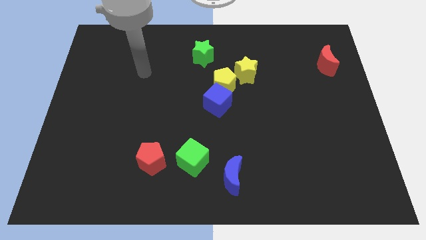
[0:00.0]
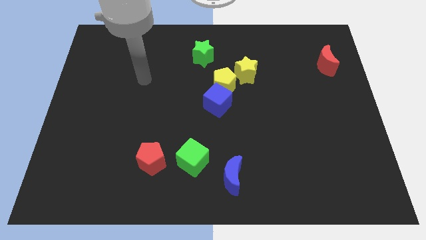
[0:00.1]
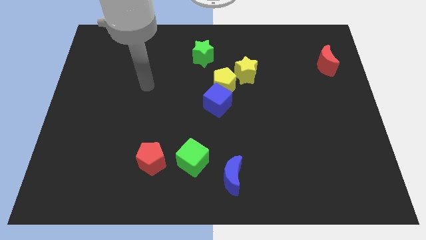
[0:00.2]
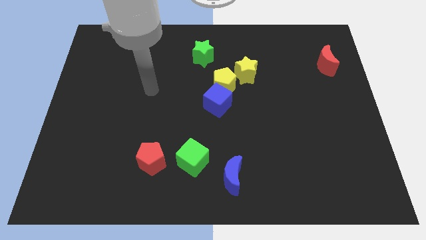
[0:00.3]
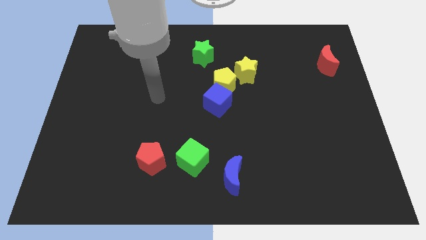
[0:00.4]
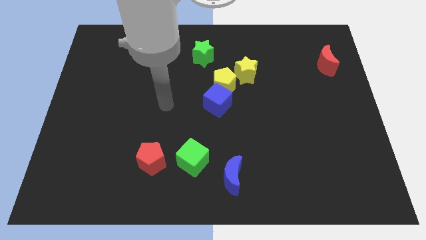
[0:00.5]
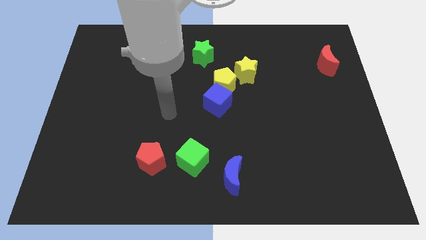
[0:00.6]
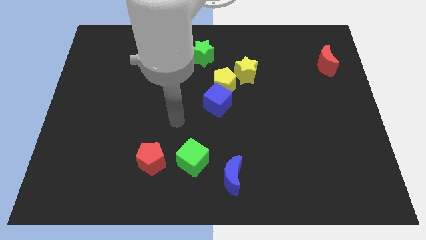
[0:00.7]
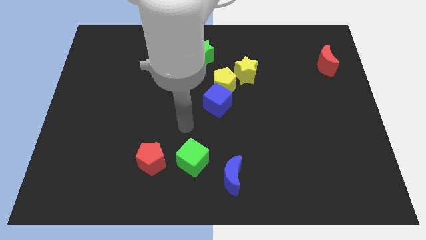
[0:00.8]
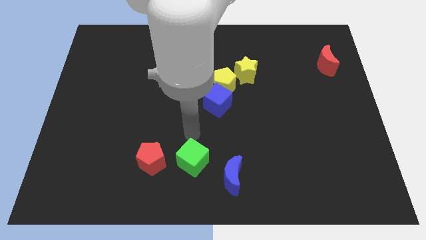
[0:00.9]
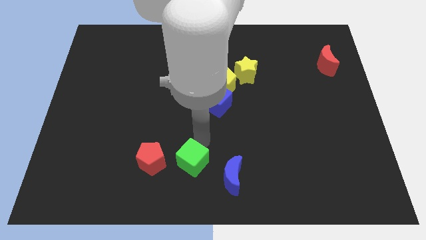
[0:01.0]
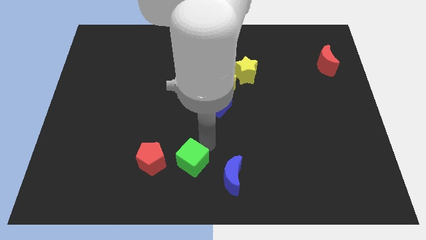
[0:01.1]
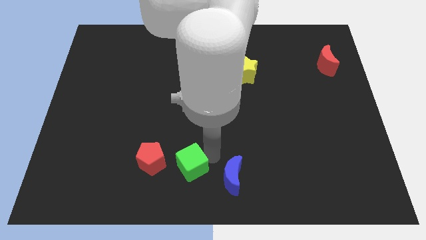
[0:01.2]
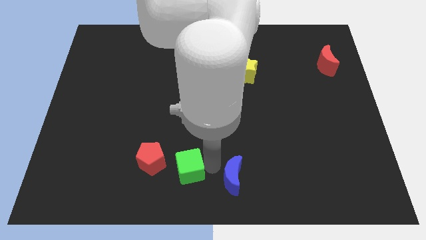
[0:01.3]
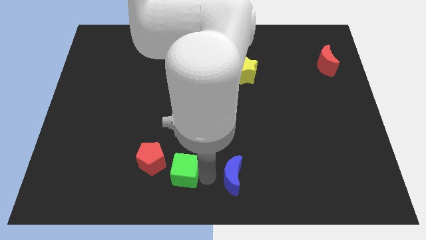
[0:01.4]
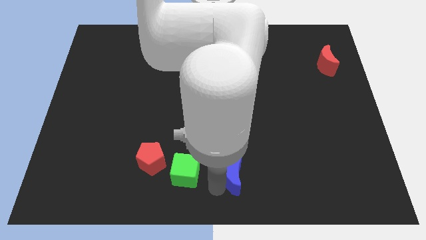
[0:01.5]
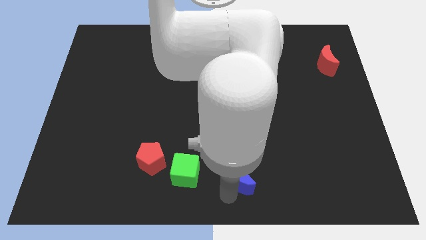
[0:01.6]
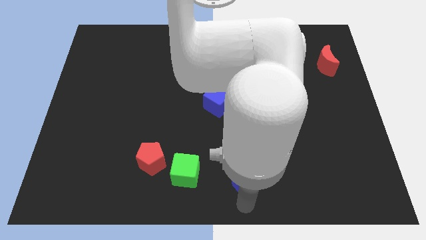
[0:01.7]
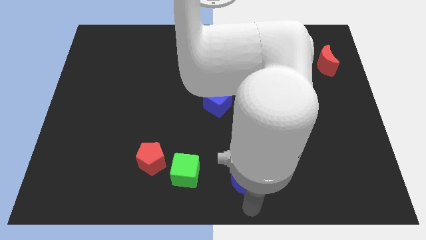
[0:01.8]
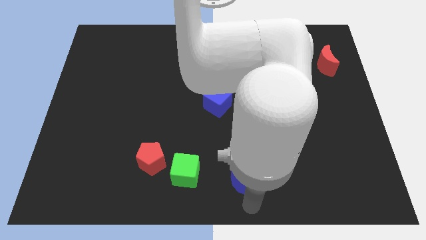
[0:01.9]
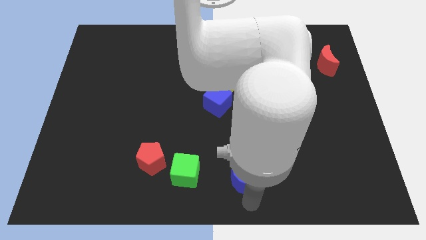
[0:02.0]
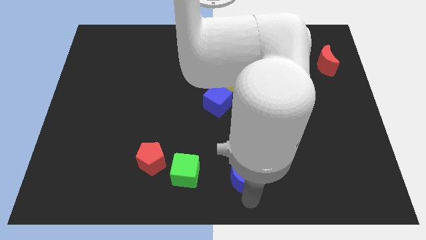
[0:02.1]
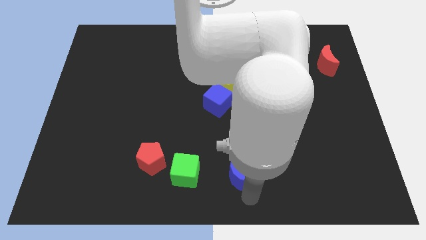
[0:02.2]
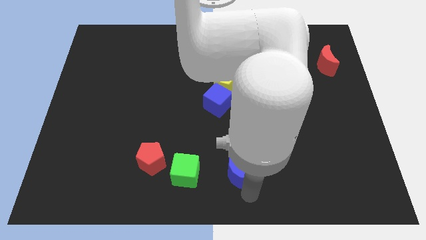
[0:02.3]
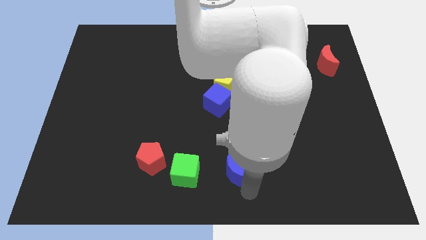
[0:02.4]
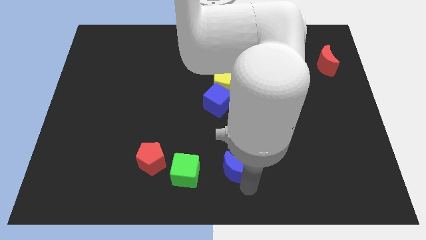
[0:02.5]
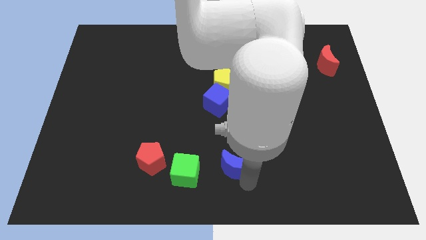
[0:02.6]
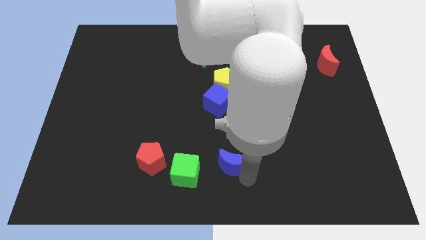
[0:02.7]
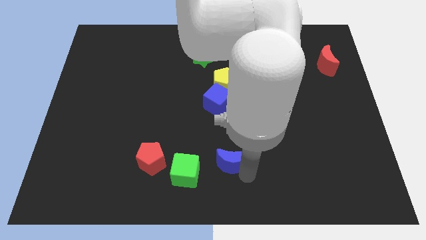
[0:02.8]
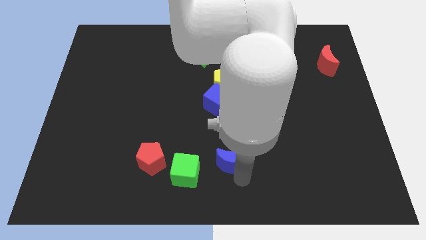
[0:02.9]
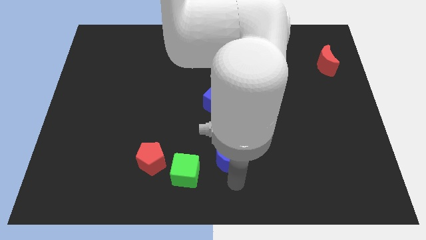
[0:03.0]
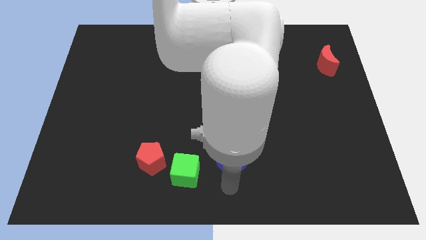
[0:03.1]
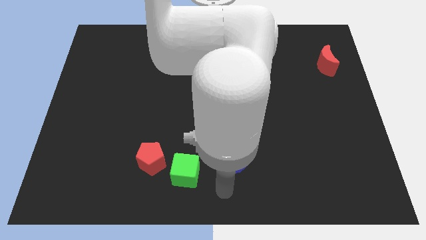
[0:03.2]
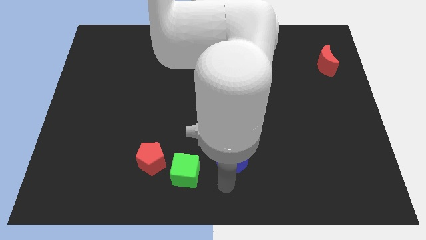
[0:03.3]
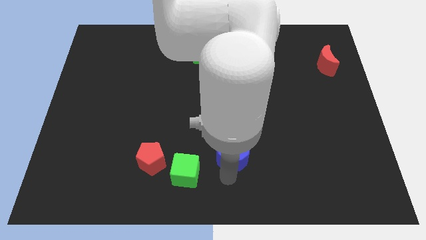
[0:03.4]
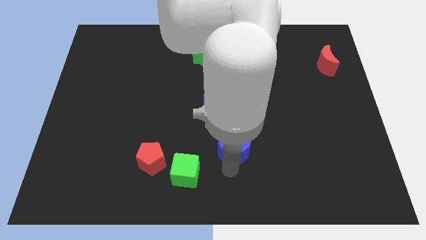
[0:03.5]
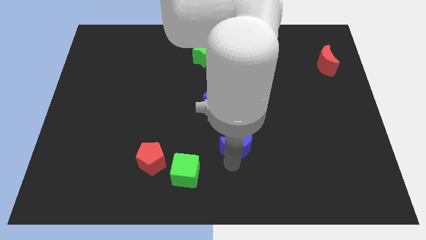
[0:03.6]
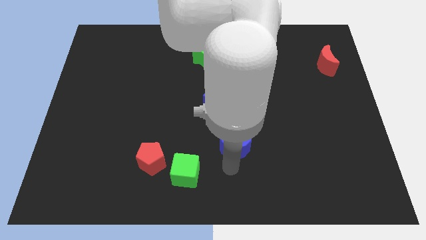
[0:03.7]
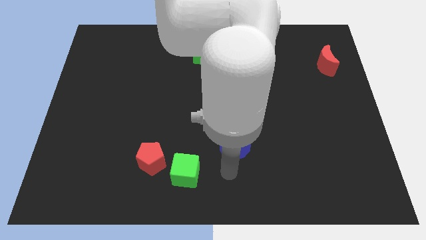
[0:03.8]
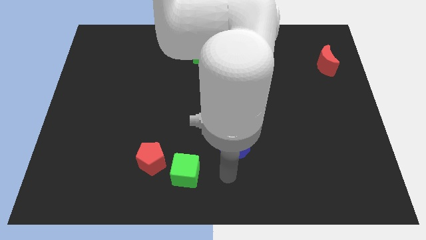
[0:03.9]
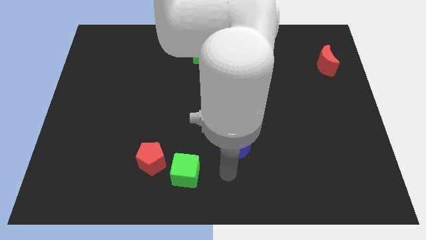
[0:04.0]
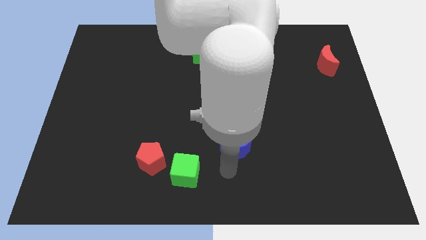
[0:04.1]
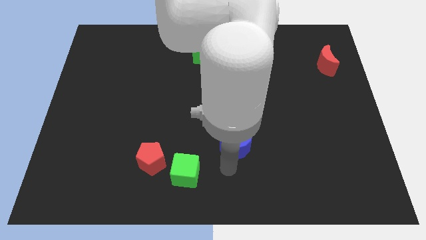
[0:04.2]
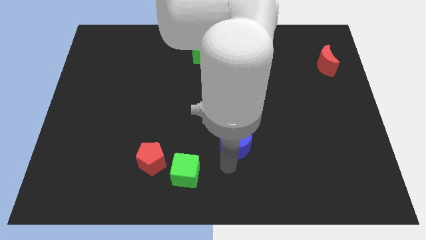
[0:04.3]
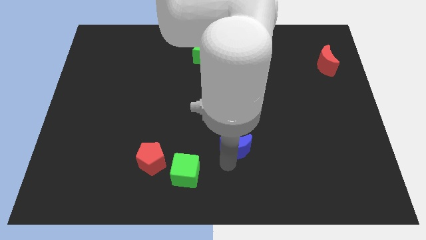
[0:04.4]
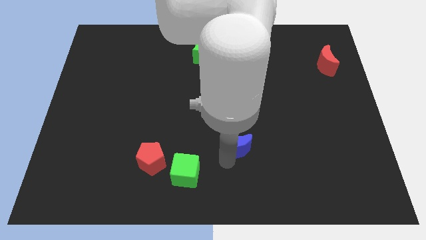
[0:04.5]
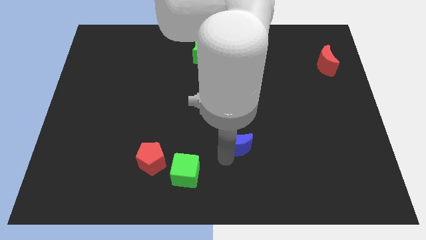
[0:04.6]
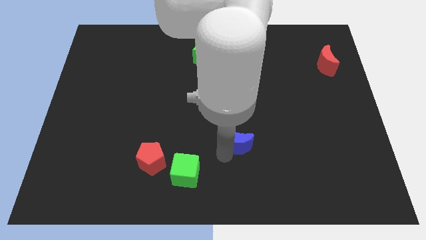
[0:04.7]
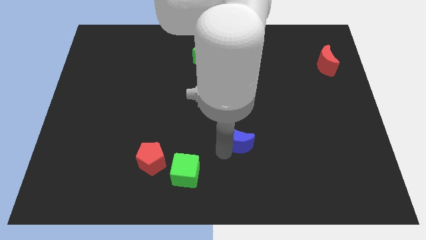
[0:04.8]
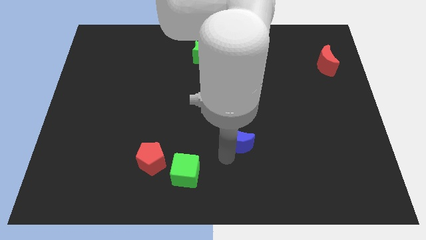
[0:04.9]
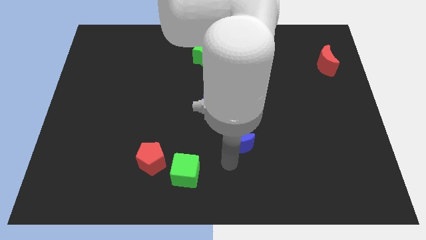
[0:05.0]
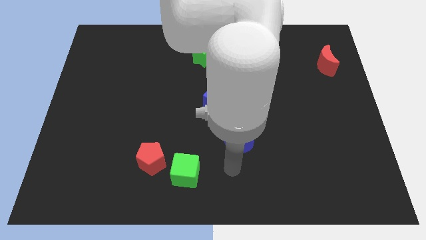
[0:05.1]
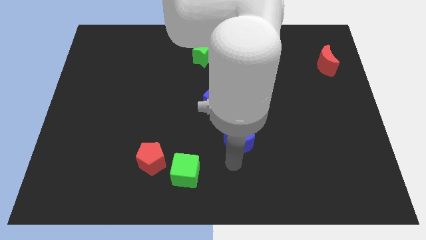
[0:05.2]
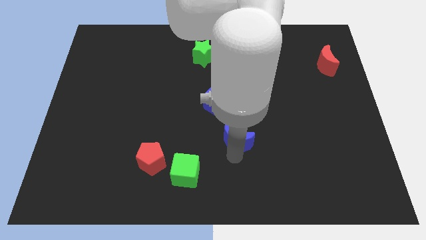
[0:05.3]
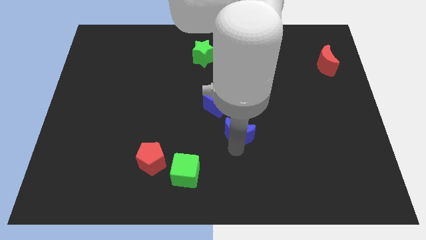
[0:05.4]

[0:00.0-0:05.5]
put the blue moon to the bottom right side of the blue cube
